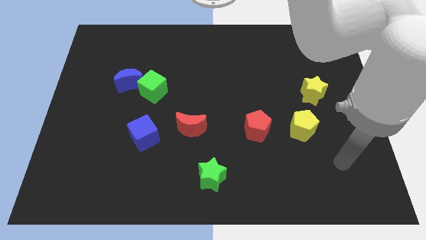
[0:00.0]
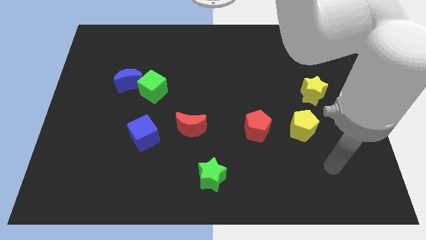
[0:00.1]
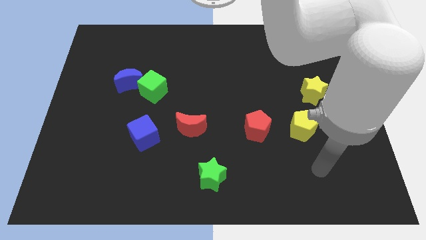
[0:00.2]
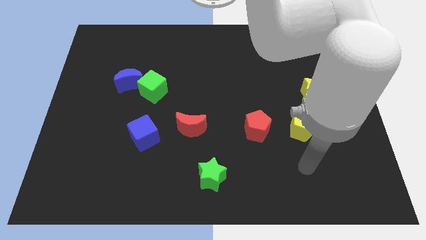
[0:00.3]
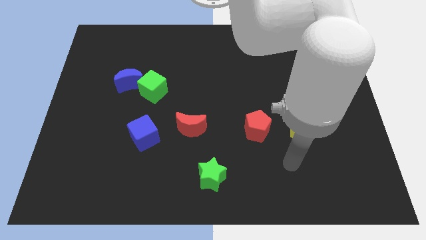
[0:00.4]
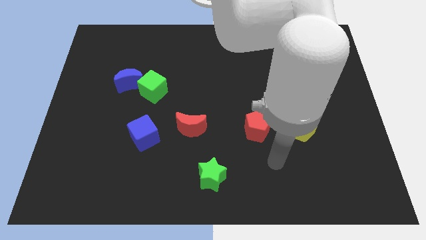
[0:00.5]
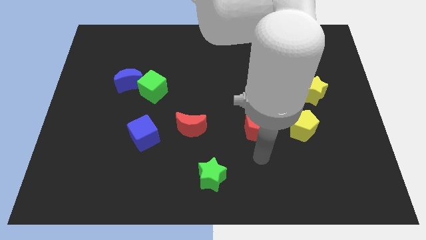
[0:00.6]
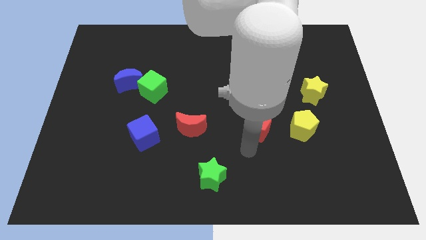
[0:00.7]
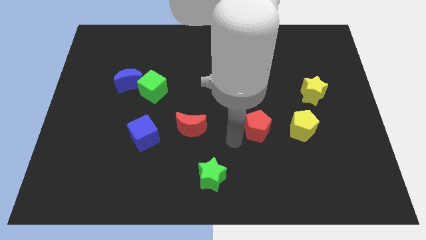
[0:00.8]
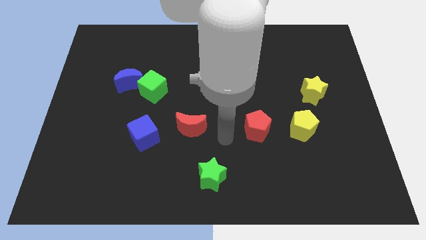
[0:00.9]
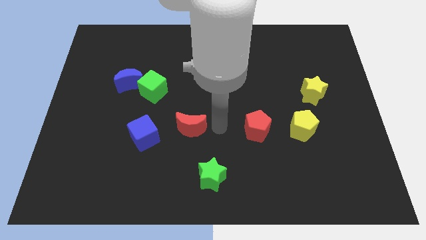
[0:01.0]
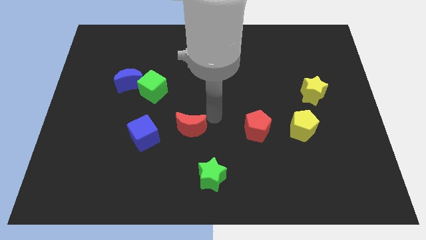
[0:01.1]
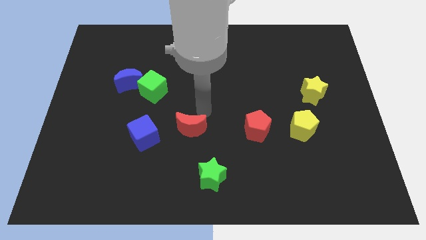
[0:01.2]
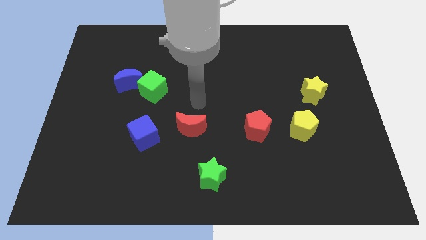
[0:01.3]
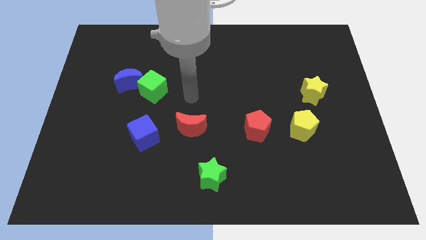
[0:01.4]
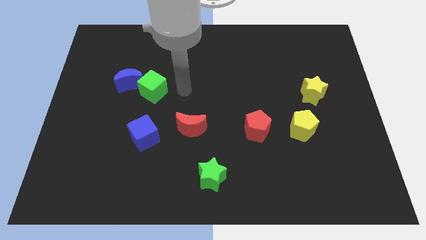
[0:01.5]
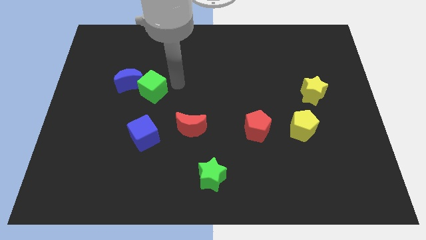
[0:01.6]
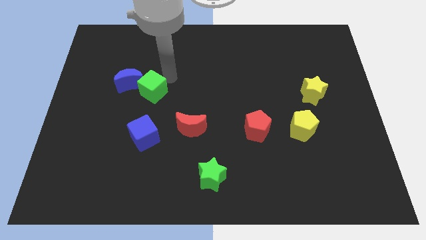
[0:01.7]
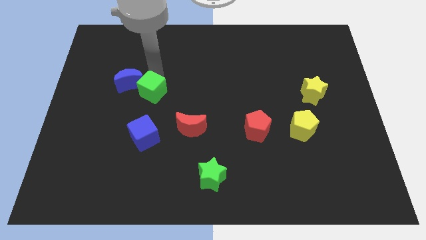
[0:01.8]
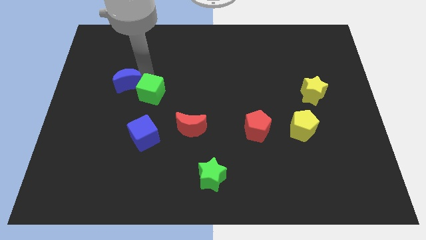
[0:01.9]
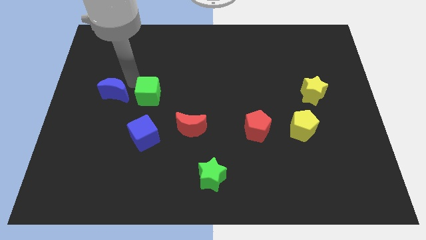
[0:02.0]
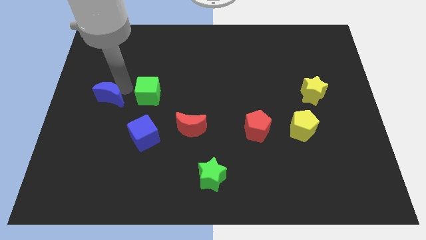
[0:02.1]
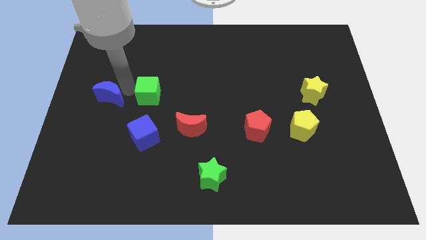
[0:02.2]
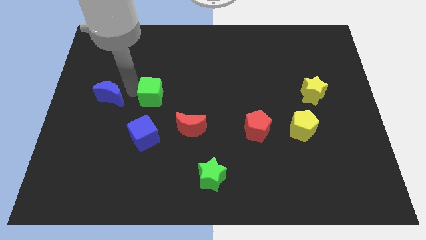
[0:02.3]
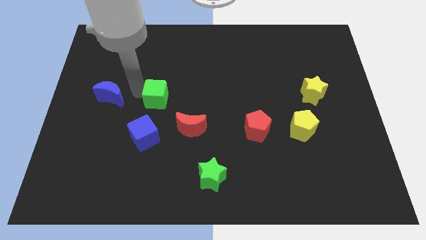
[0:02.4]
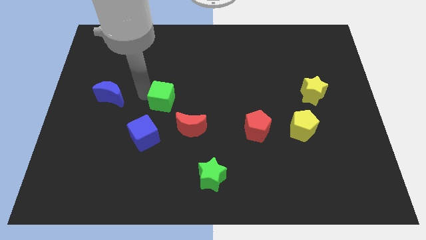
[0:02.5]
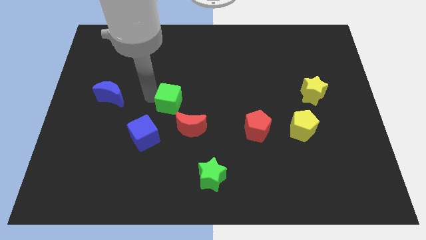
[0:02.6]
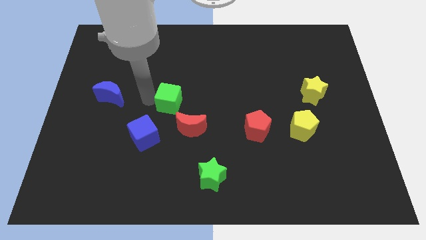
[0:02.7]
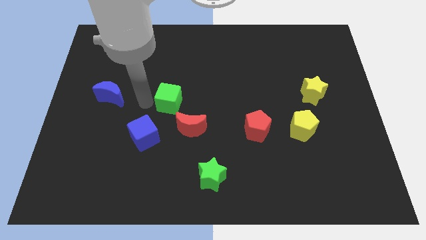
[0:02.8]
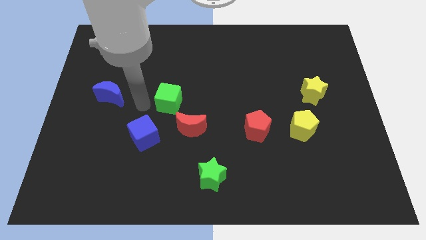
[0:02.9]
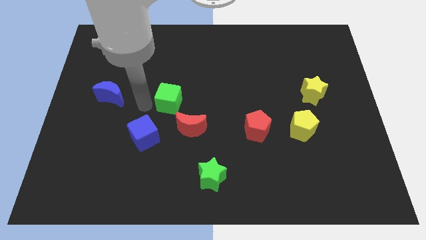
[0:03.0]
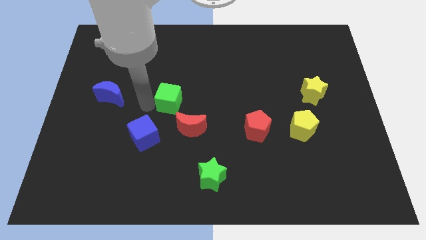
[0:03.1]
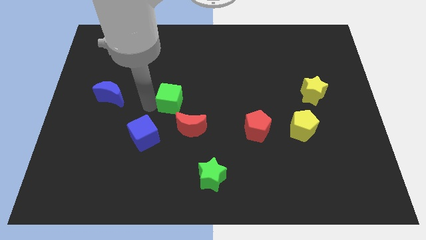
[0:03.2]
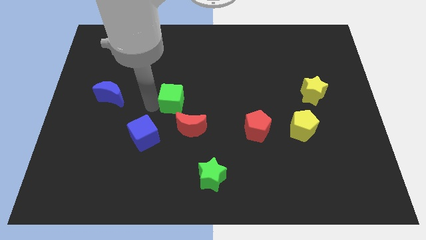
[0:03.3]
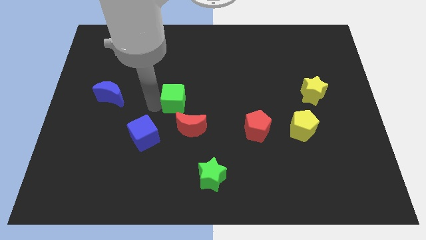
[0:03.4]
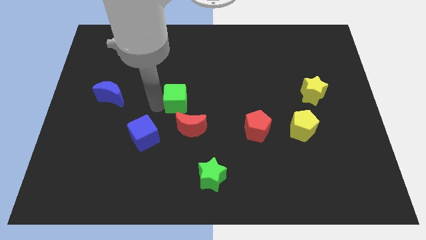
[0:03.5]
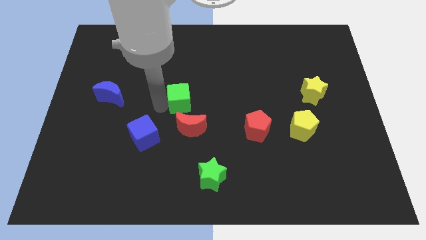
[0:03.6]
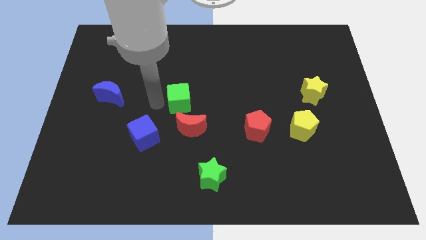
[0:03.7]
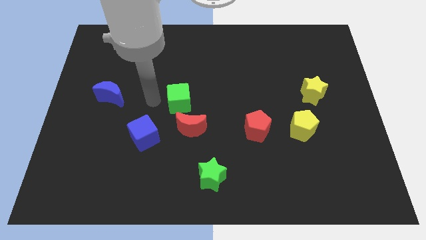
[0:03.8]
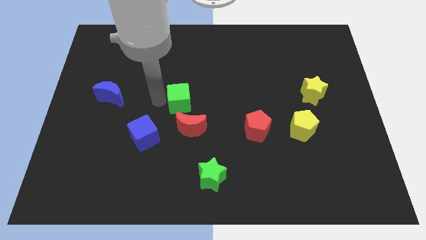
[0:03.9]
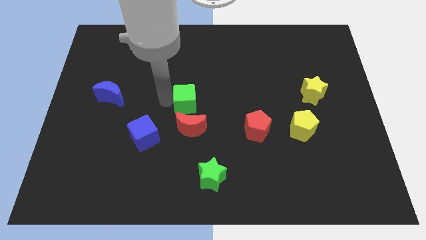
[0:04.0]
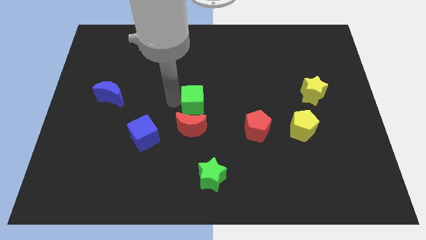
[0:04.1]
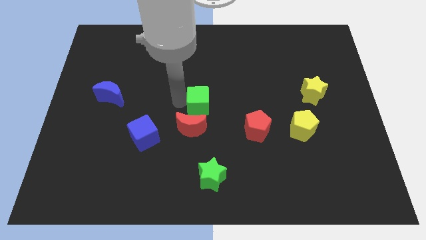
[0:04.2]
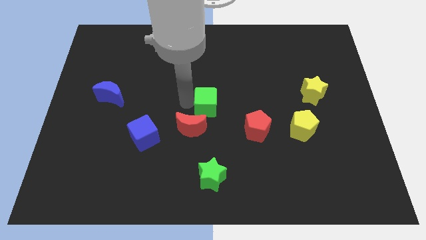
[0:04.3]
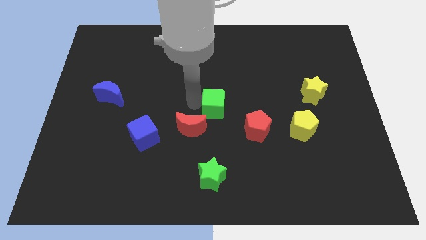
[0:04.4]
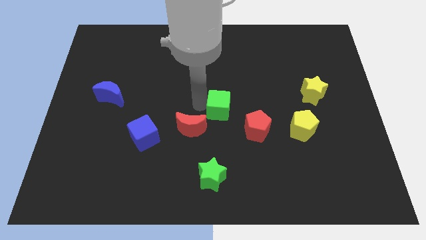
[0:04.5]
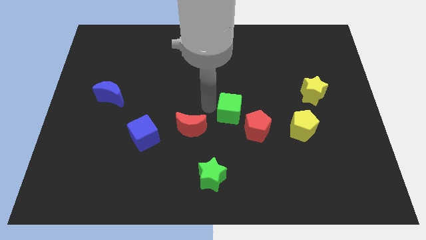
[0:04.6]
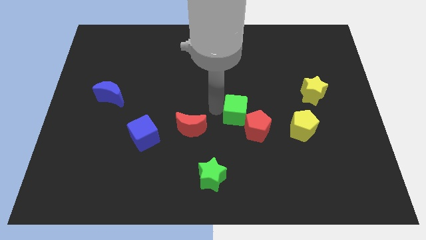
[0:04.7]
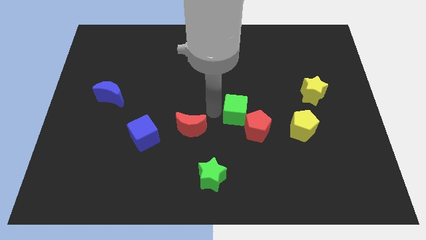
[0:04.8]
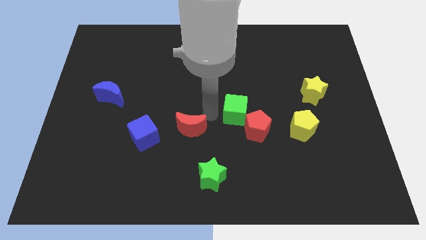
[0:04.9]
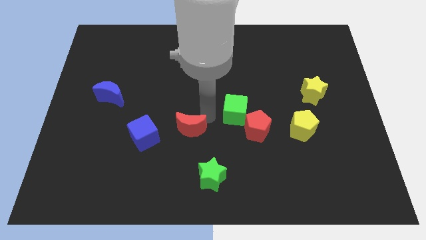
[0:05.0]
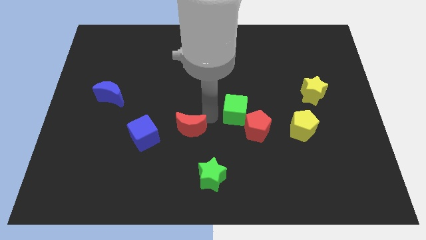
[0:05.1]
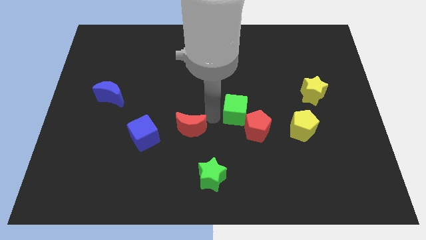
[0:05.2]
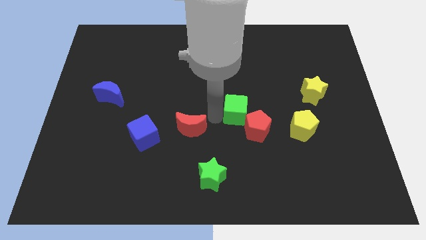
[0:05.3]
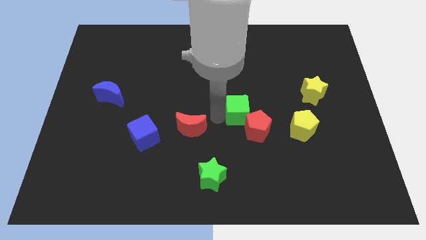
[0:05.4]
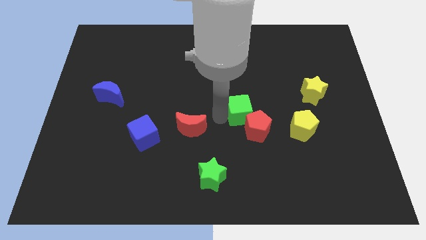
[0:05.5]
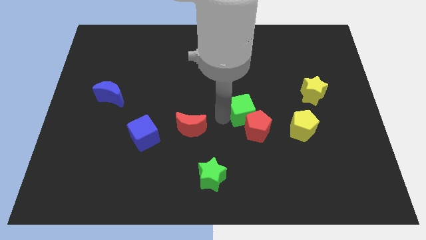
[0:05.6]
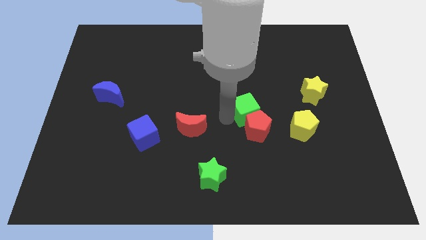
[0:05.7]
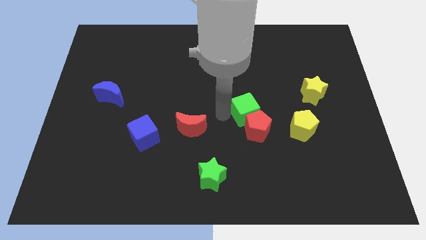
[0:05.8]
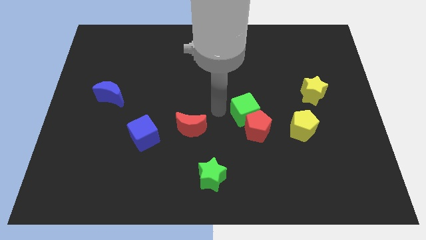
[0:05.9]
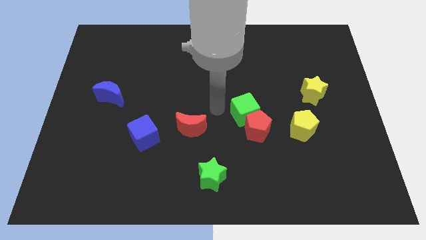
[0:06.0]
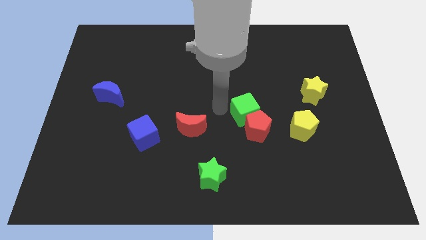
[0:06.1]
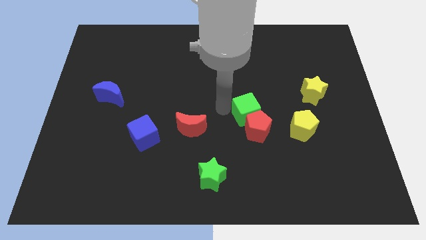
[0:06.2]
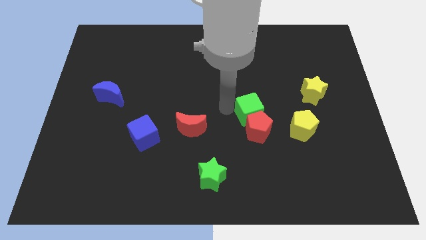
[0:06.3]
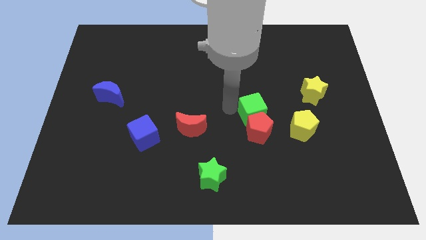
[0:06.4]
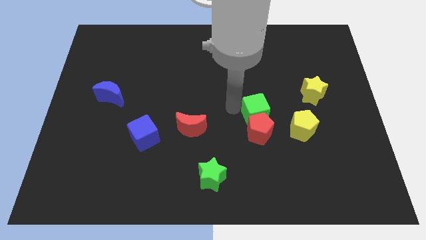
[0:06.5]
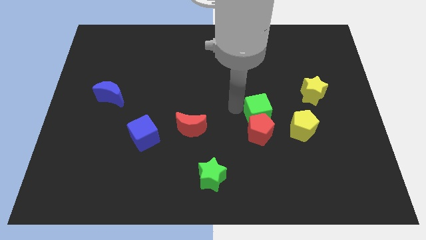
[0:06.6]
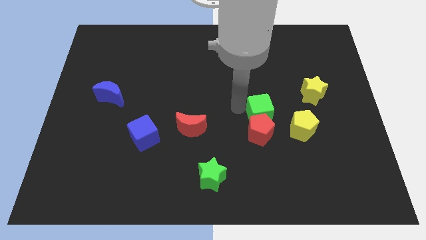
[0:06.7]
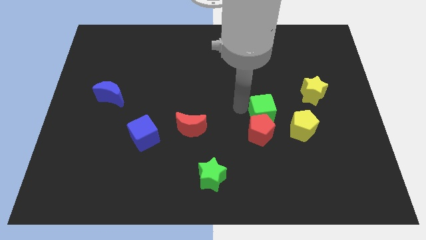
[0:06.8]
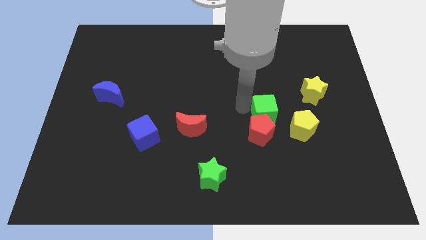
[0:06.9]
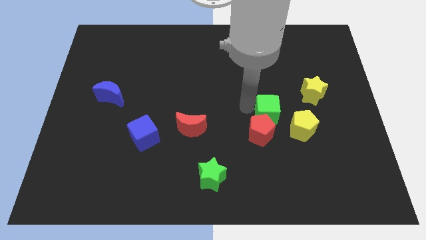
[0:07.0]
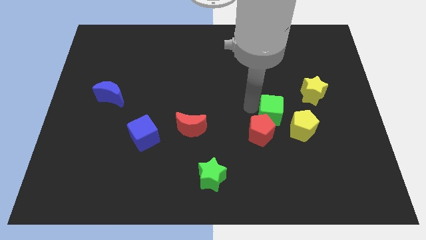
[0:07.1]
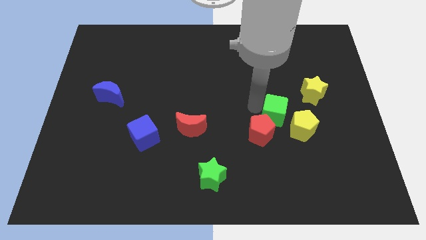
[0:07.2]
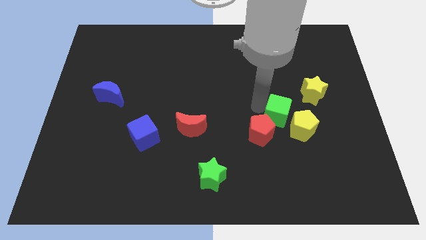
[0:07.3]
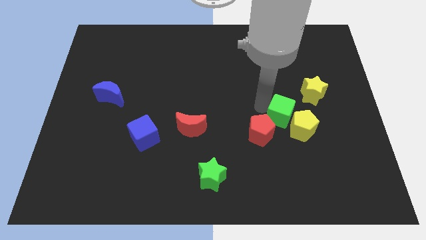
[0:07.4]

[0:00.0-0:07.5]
push the green cube close to the yellow pentagon

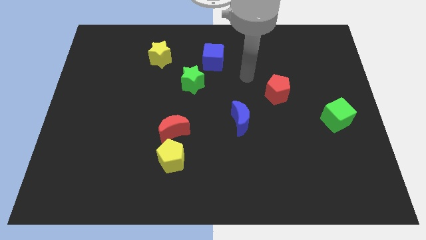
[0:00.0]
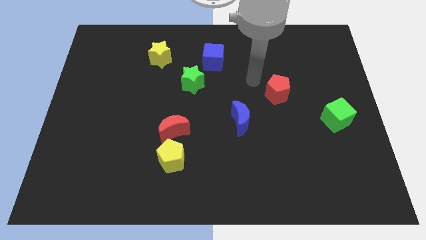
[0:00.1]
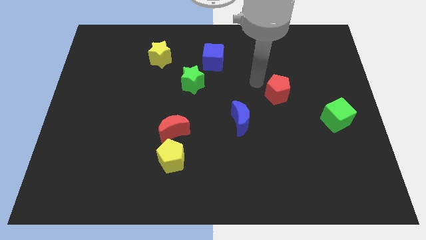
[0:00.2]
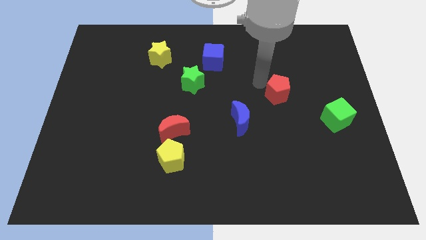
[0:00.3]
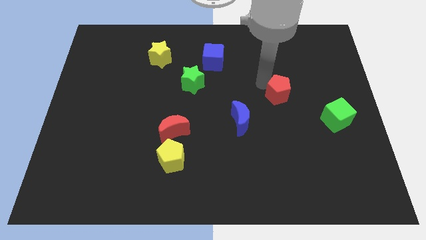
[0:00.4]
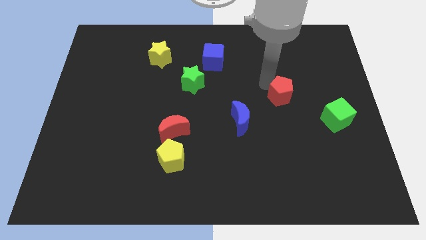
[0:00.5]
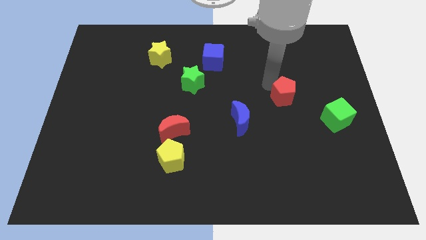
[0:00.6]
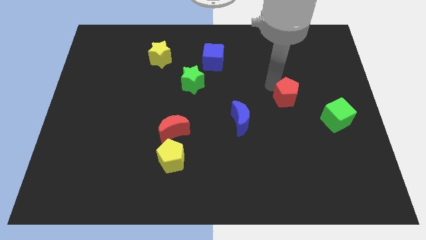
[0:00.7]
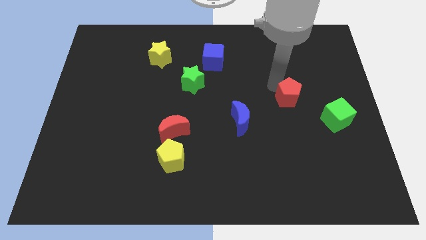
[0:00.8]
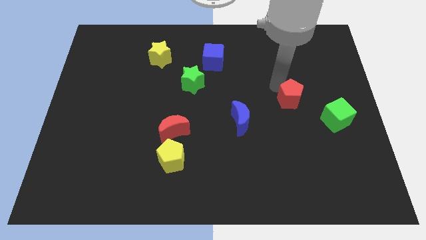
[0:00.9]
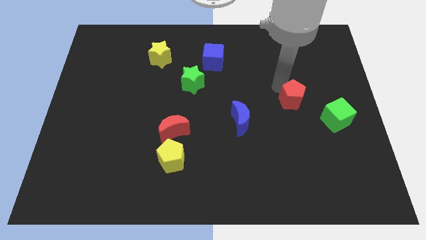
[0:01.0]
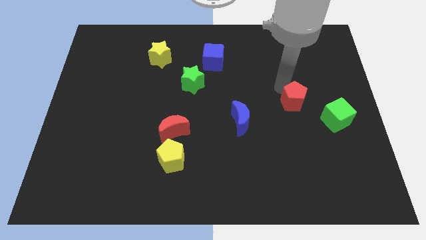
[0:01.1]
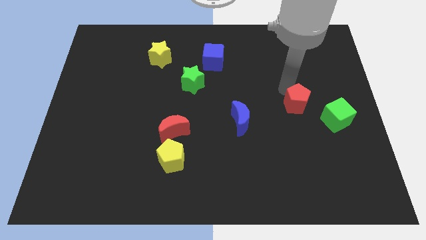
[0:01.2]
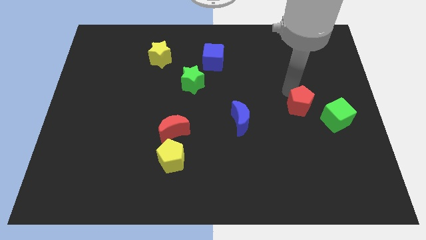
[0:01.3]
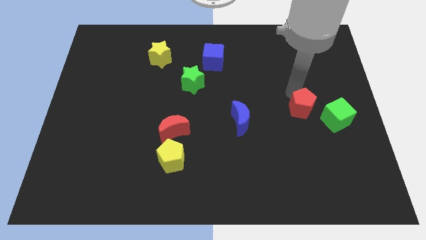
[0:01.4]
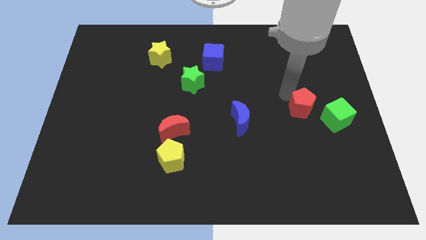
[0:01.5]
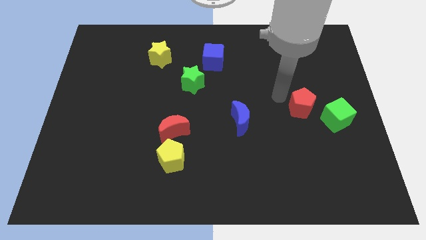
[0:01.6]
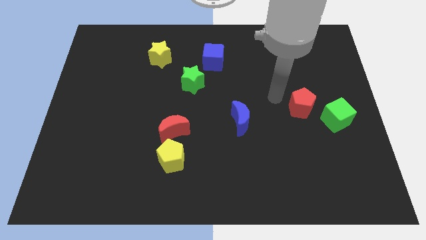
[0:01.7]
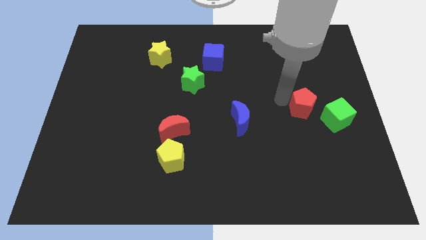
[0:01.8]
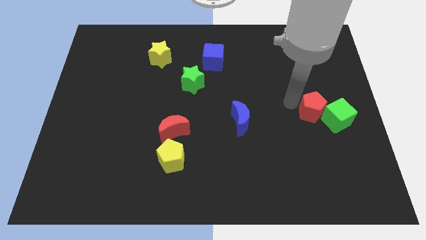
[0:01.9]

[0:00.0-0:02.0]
move the red pentagon to the green cube
